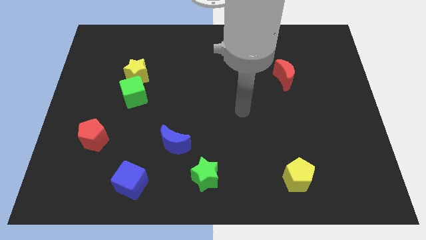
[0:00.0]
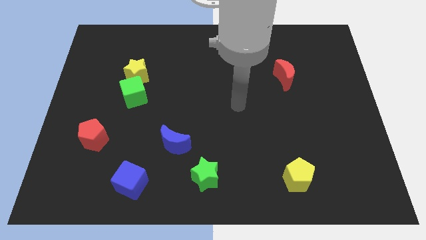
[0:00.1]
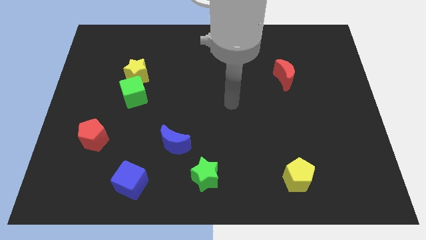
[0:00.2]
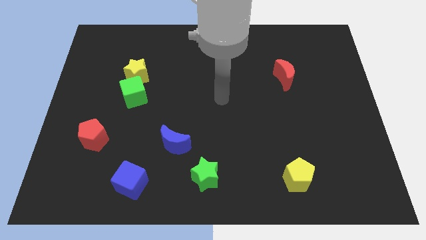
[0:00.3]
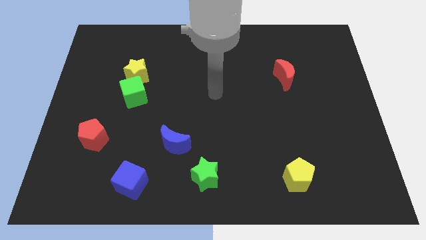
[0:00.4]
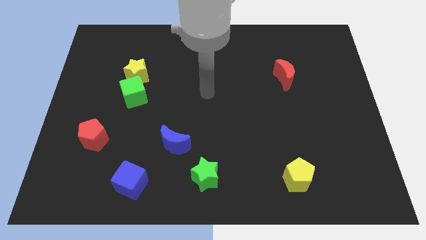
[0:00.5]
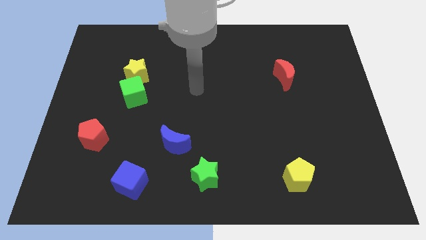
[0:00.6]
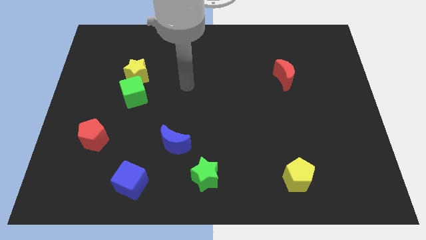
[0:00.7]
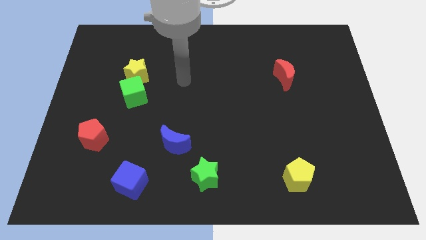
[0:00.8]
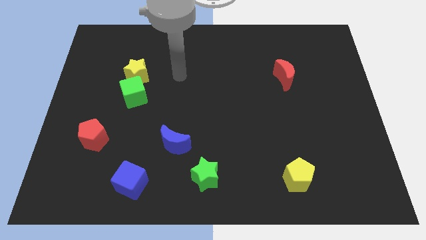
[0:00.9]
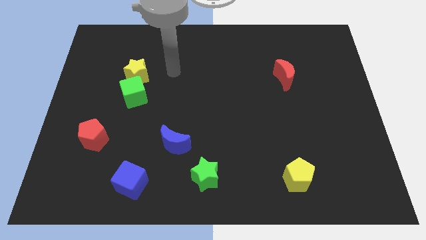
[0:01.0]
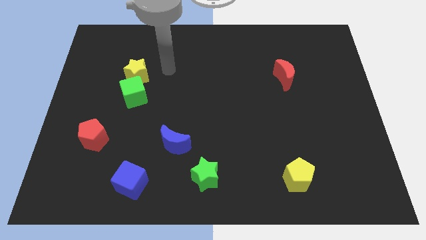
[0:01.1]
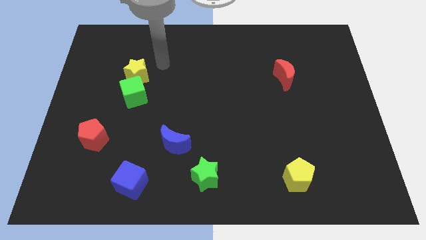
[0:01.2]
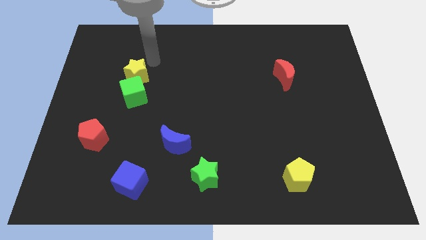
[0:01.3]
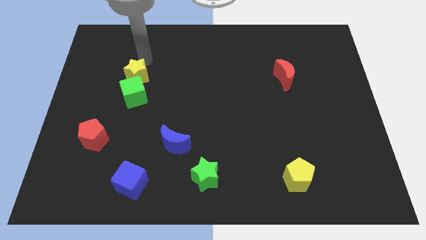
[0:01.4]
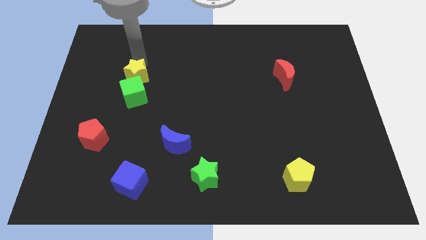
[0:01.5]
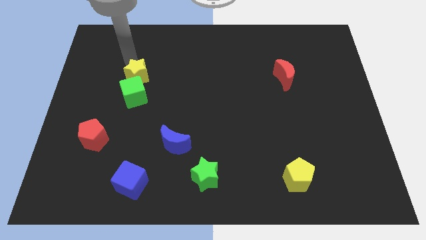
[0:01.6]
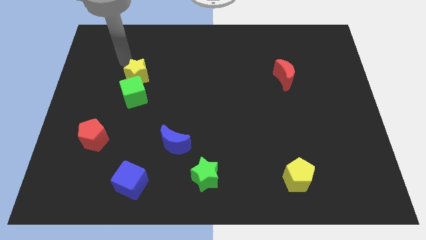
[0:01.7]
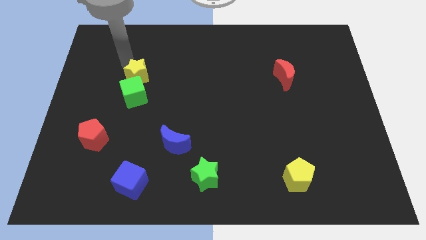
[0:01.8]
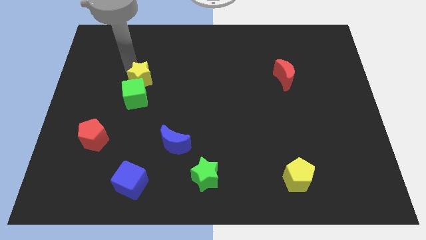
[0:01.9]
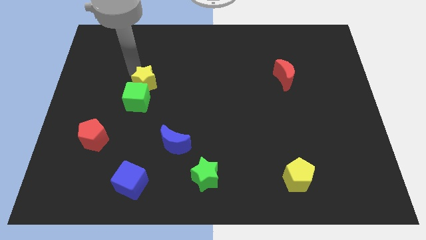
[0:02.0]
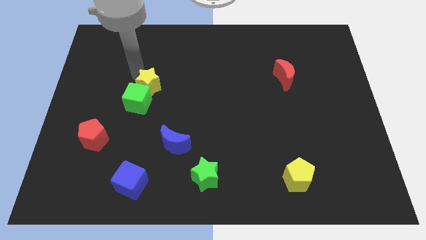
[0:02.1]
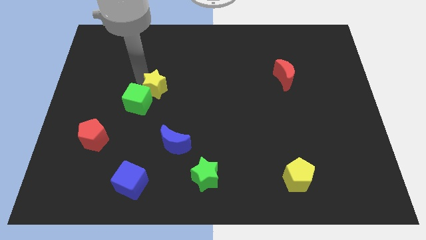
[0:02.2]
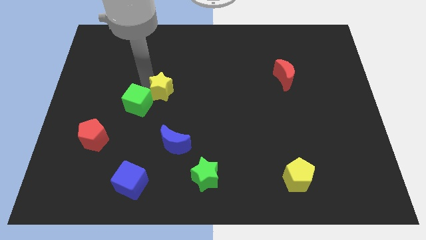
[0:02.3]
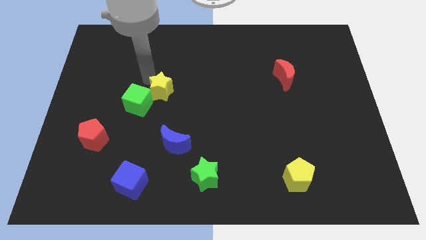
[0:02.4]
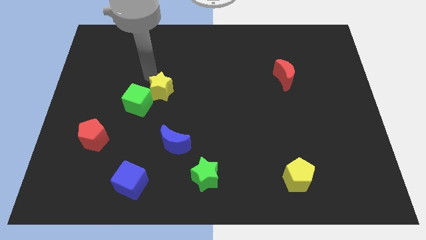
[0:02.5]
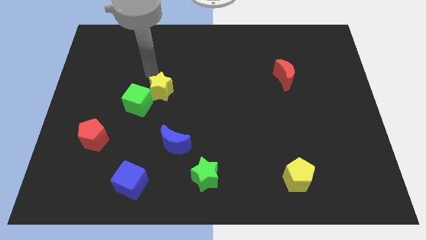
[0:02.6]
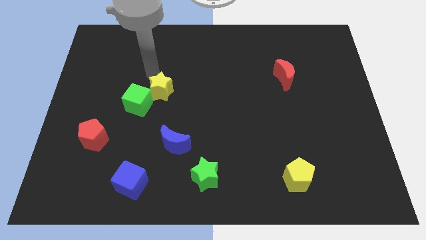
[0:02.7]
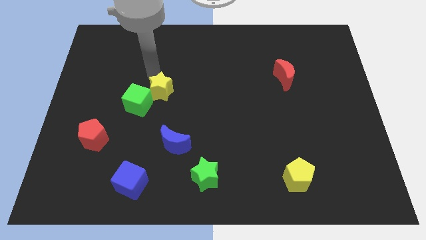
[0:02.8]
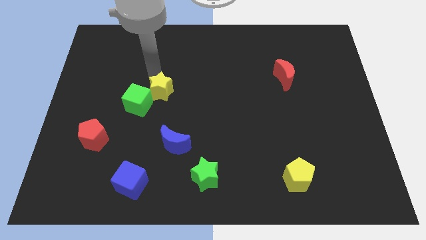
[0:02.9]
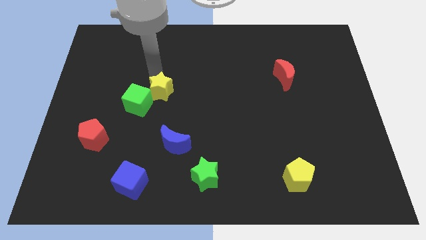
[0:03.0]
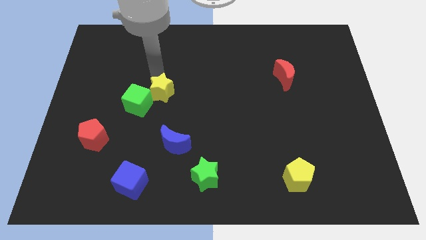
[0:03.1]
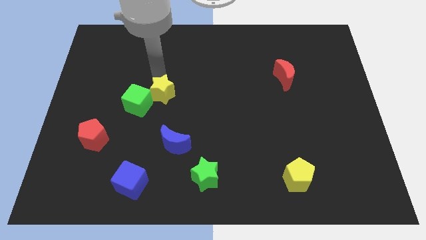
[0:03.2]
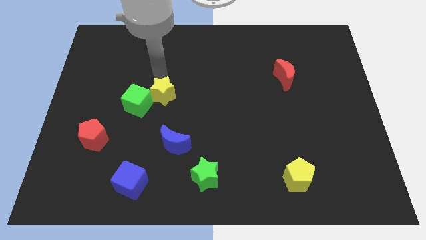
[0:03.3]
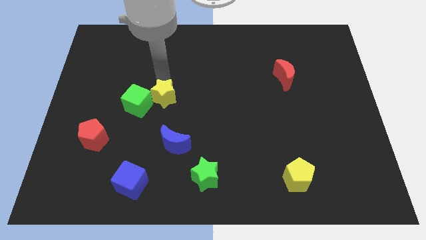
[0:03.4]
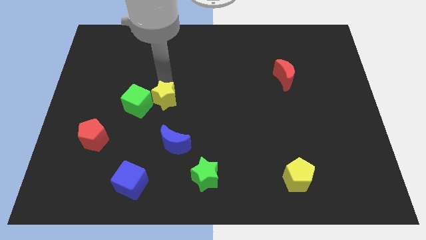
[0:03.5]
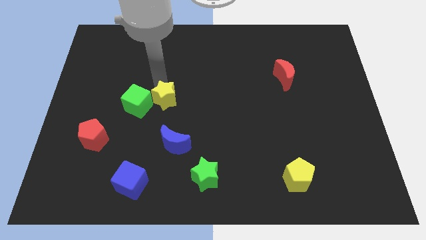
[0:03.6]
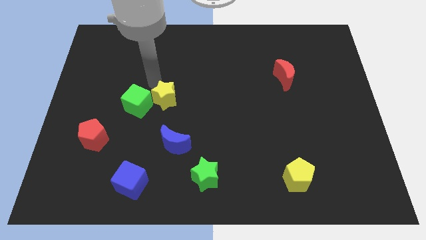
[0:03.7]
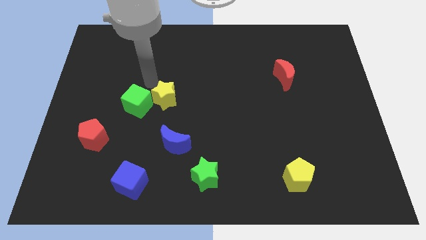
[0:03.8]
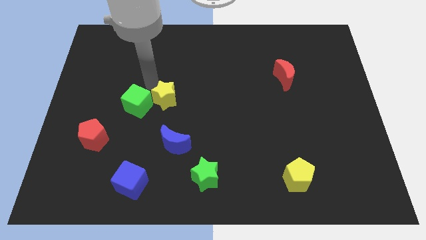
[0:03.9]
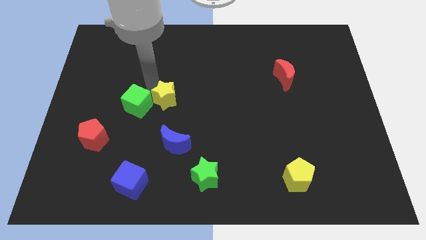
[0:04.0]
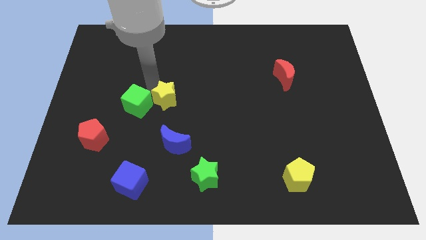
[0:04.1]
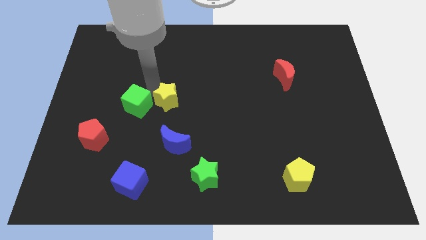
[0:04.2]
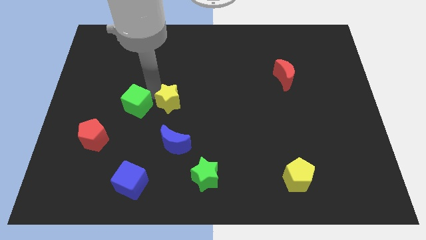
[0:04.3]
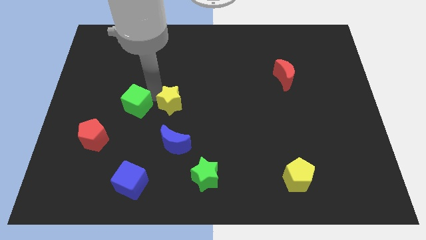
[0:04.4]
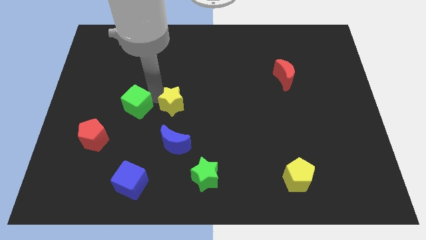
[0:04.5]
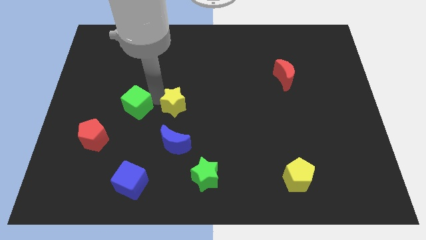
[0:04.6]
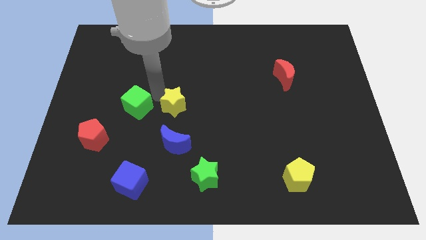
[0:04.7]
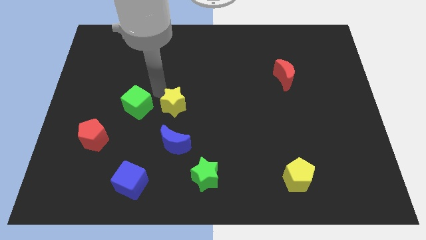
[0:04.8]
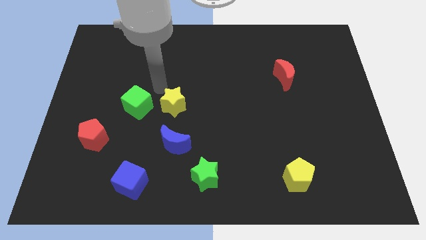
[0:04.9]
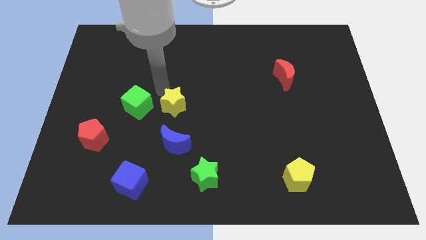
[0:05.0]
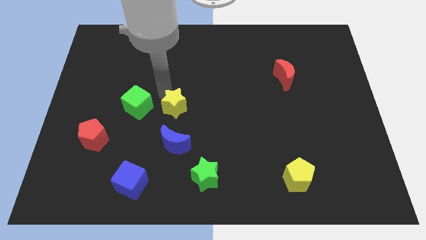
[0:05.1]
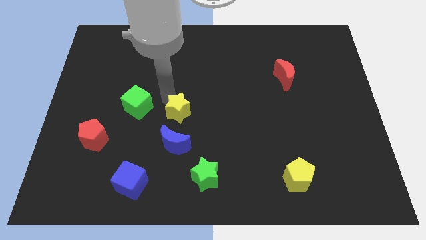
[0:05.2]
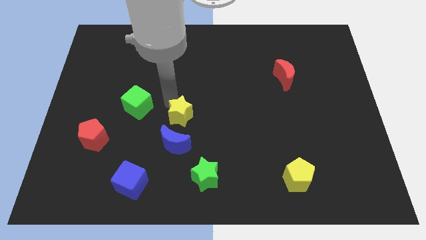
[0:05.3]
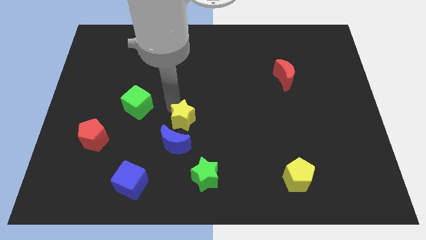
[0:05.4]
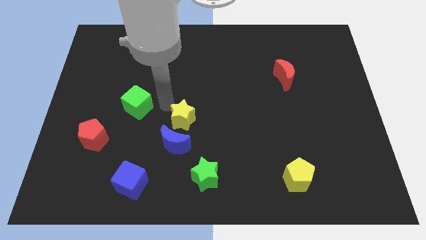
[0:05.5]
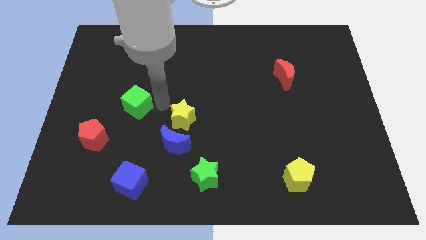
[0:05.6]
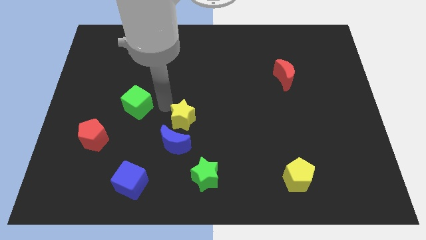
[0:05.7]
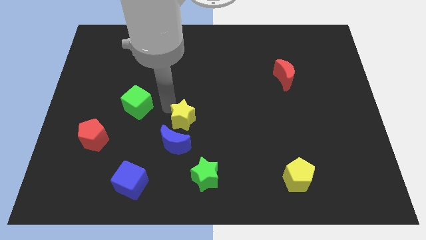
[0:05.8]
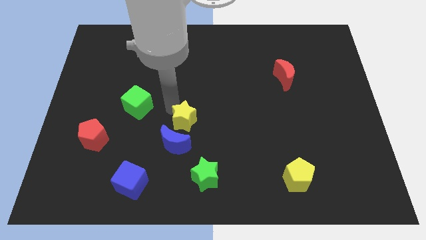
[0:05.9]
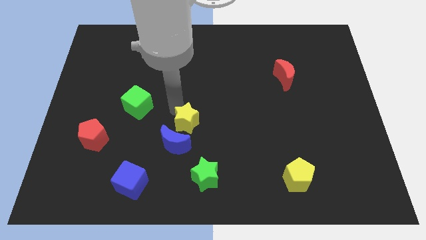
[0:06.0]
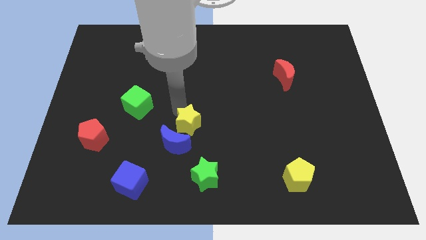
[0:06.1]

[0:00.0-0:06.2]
push the yellow star down and then right

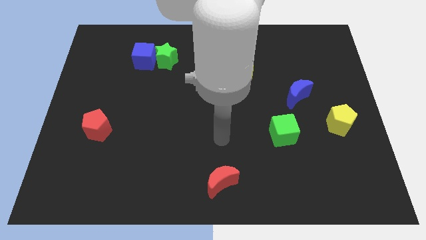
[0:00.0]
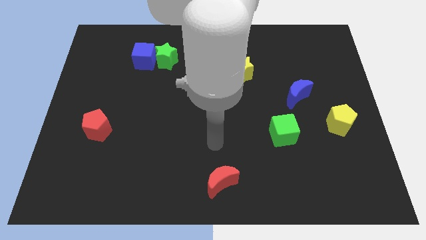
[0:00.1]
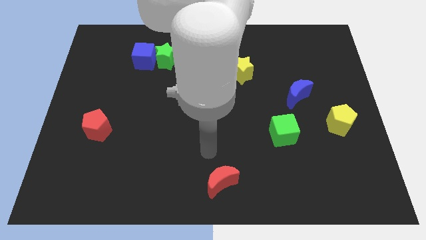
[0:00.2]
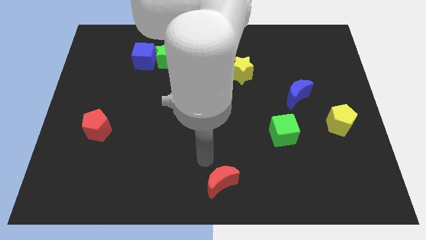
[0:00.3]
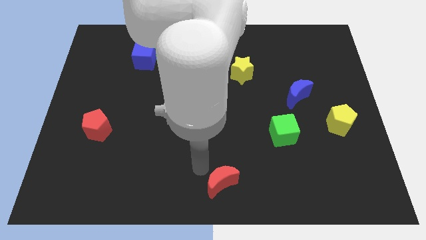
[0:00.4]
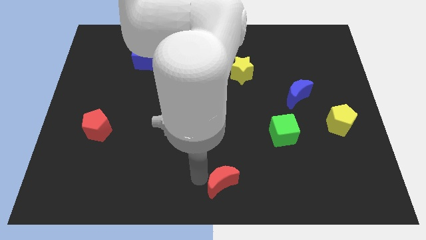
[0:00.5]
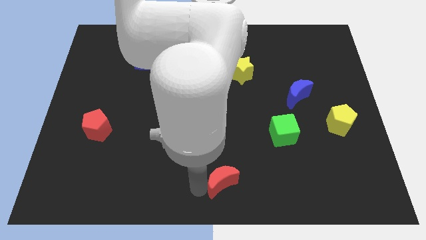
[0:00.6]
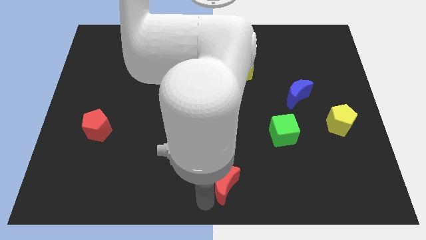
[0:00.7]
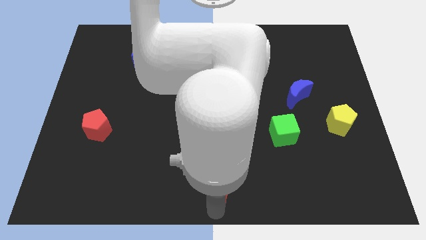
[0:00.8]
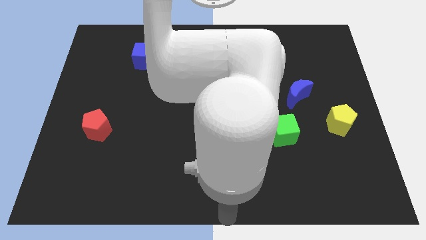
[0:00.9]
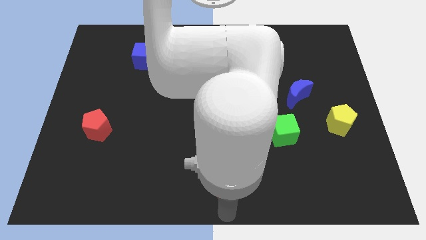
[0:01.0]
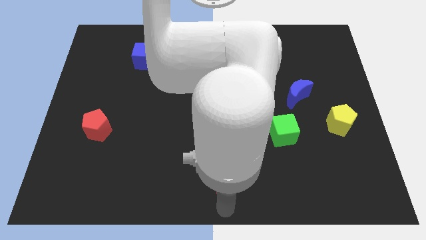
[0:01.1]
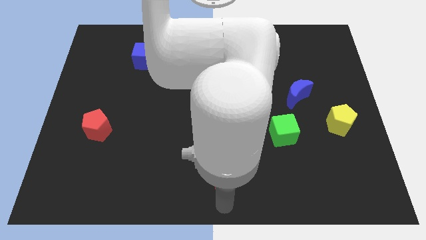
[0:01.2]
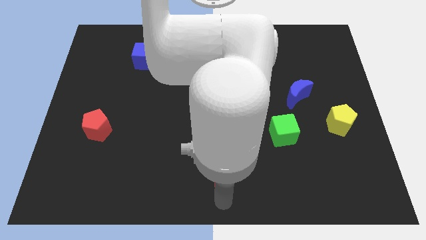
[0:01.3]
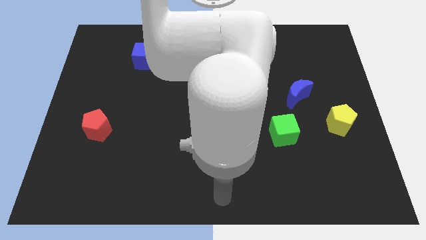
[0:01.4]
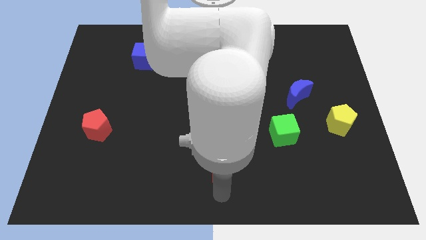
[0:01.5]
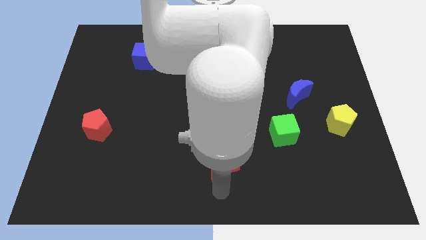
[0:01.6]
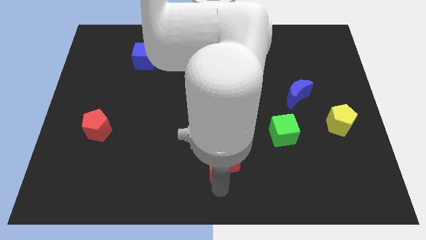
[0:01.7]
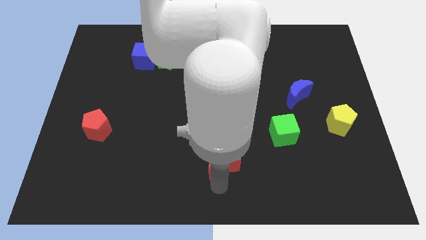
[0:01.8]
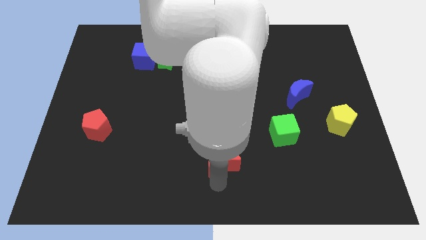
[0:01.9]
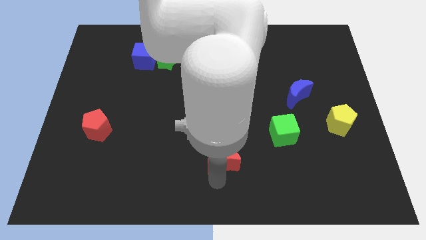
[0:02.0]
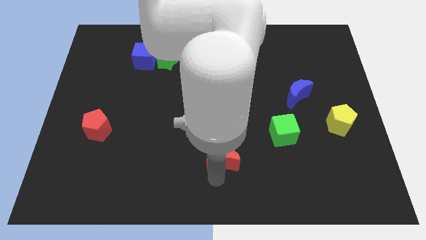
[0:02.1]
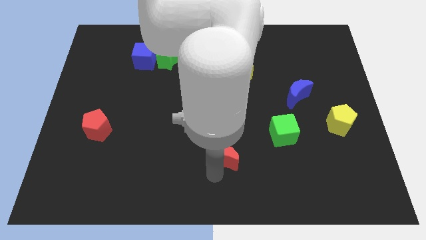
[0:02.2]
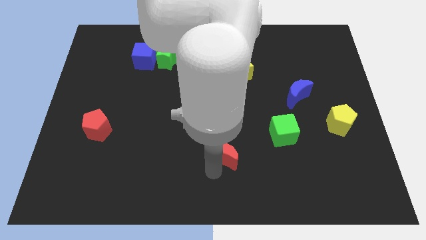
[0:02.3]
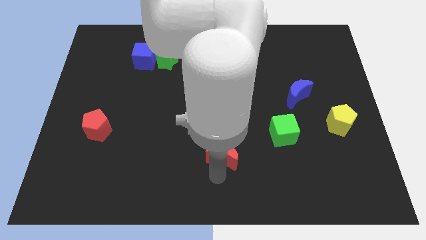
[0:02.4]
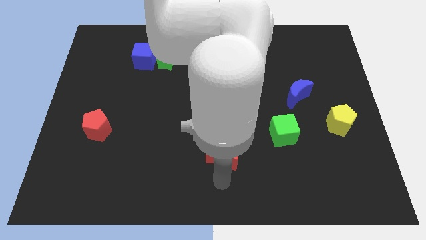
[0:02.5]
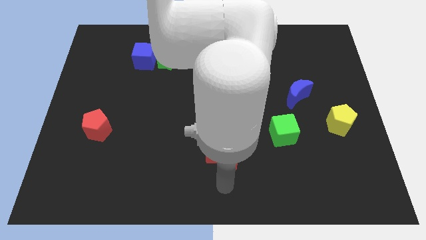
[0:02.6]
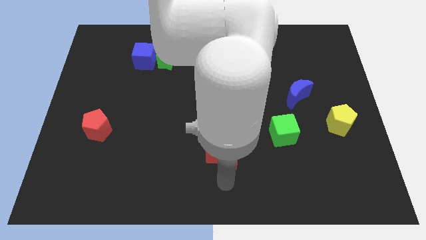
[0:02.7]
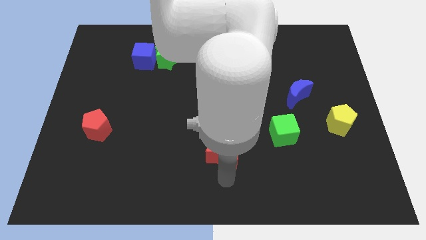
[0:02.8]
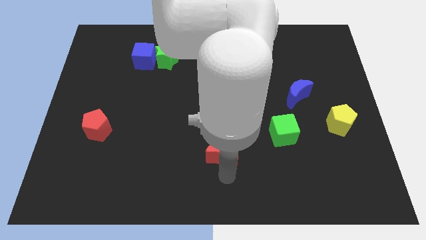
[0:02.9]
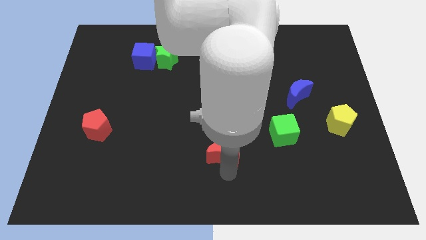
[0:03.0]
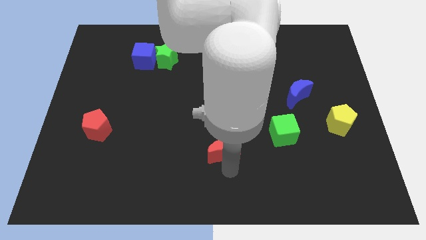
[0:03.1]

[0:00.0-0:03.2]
push the red moon up slightly
